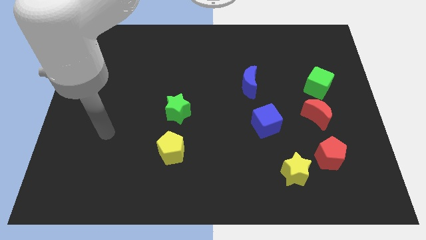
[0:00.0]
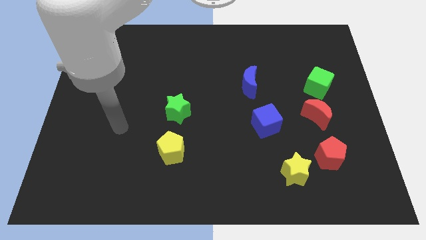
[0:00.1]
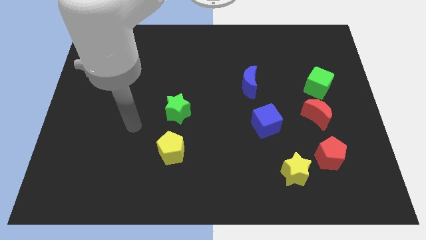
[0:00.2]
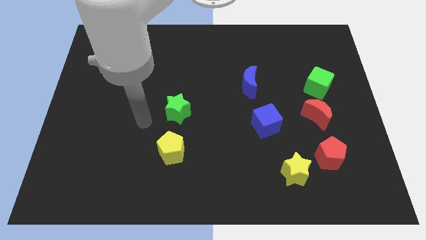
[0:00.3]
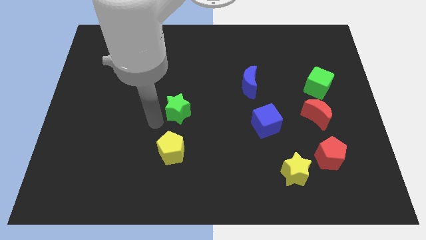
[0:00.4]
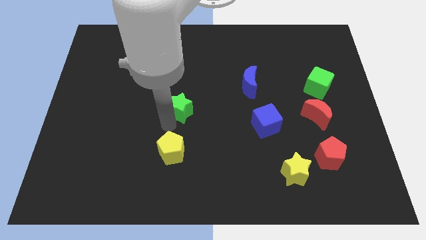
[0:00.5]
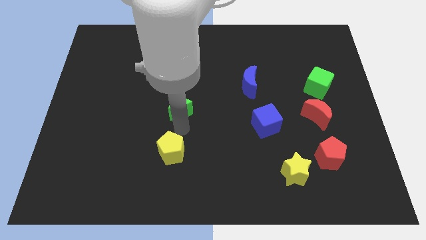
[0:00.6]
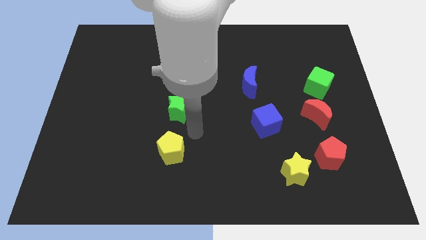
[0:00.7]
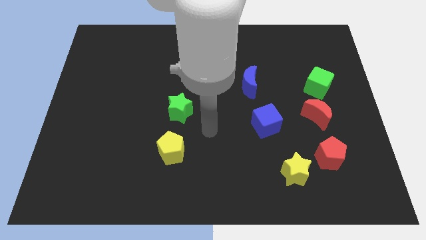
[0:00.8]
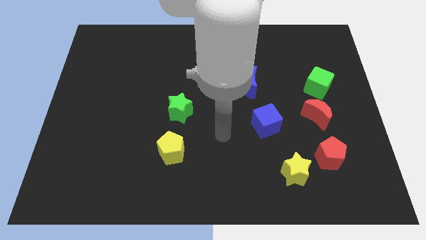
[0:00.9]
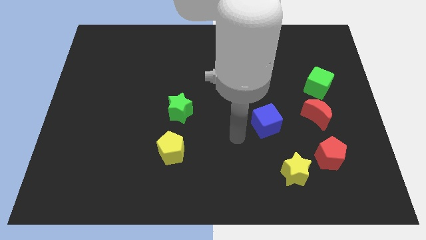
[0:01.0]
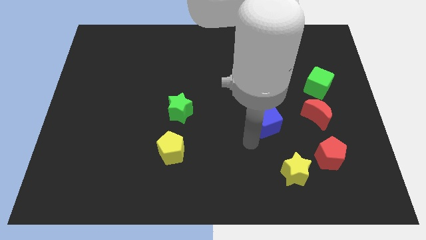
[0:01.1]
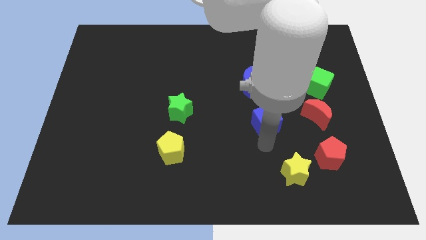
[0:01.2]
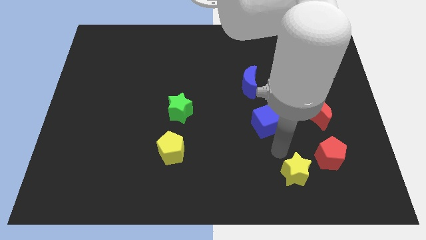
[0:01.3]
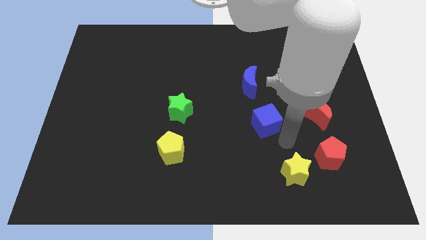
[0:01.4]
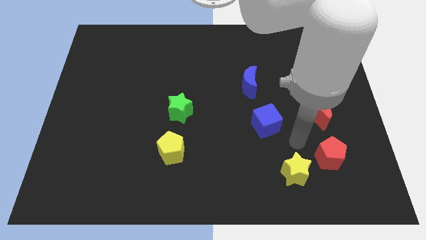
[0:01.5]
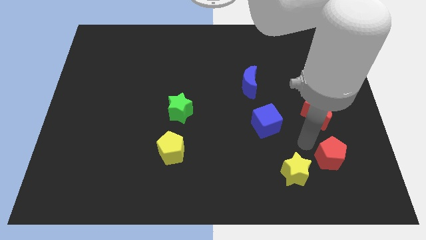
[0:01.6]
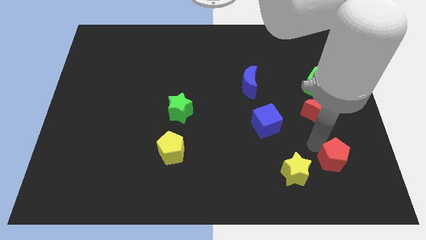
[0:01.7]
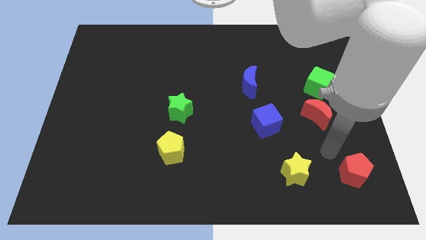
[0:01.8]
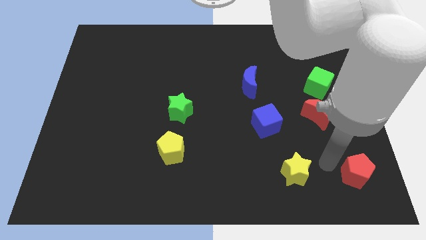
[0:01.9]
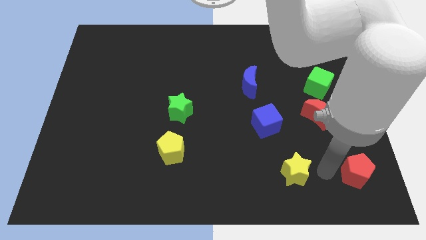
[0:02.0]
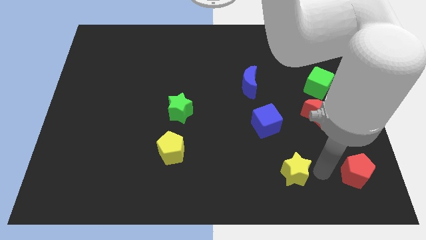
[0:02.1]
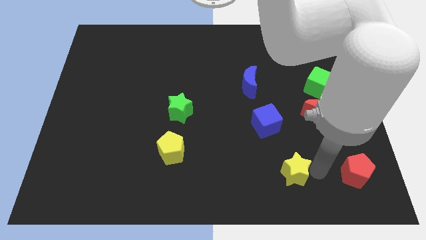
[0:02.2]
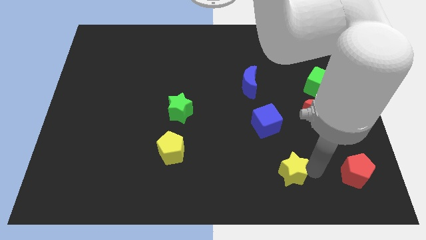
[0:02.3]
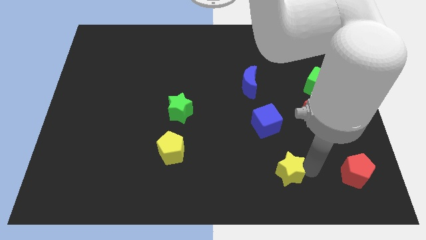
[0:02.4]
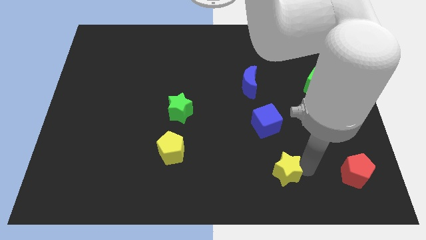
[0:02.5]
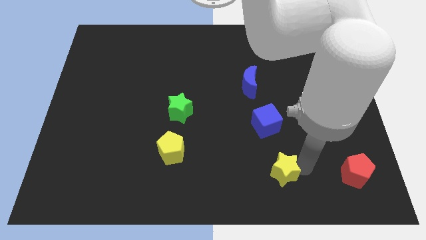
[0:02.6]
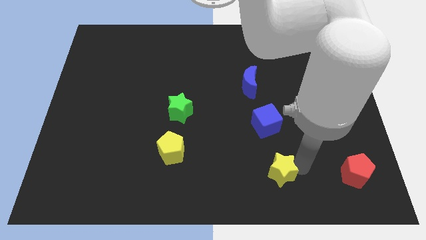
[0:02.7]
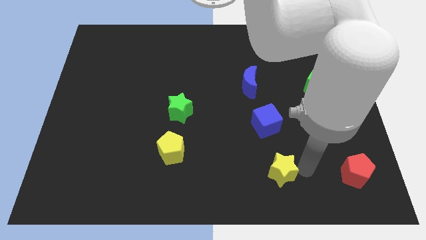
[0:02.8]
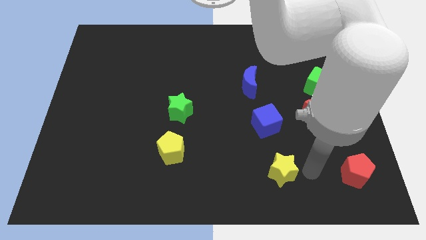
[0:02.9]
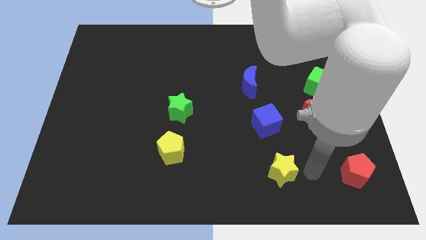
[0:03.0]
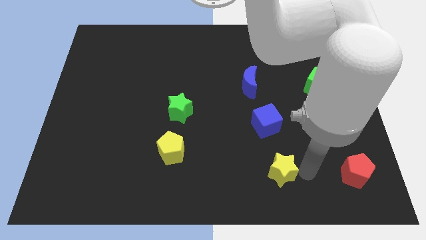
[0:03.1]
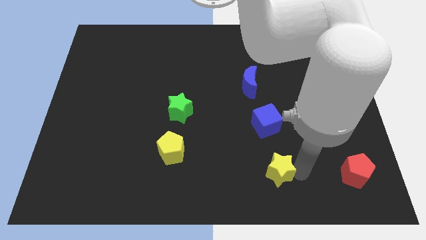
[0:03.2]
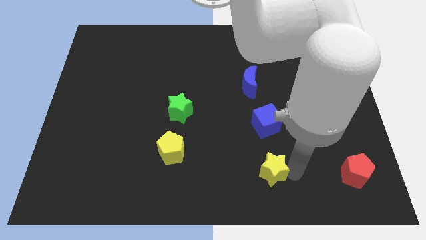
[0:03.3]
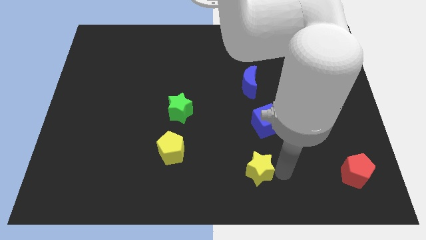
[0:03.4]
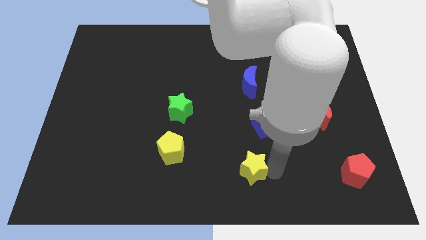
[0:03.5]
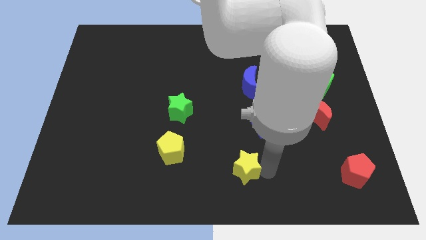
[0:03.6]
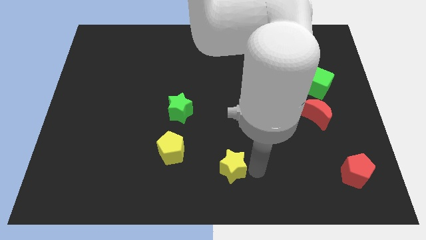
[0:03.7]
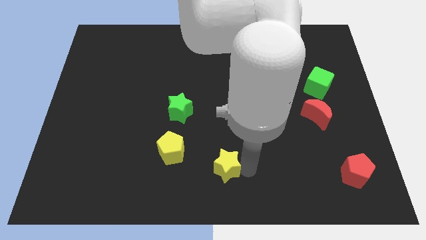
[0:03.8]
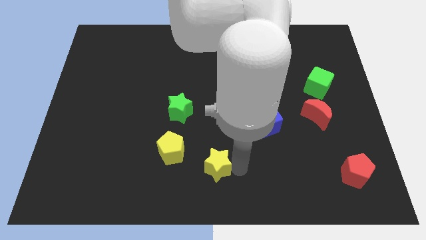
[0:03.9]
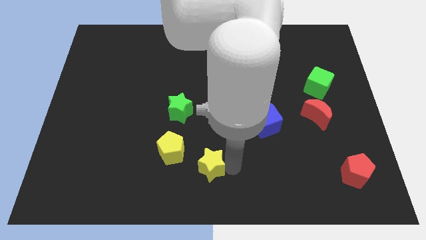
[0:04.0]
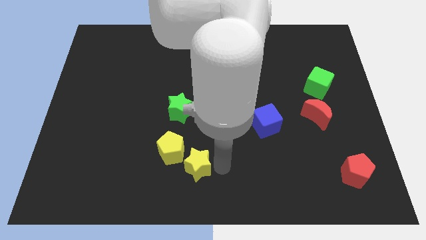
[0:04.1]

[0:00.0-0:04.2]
slide the yellow star to the left

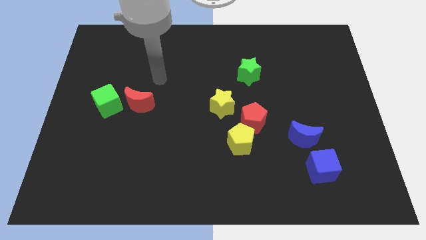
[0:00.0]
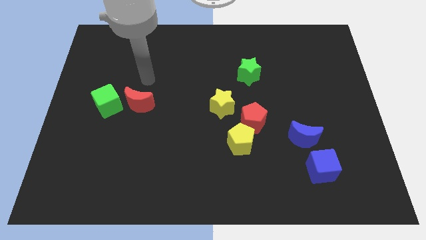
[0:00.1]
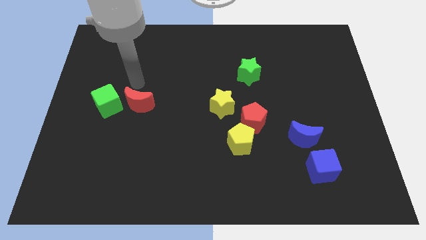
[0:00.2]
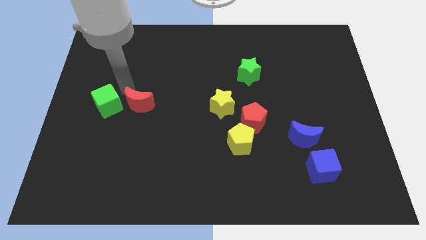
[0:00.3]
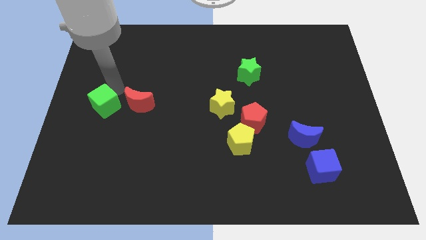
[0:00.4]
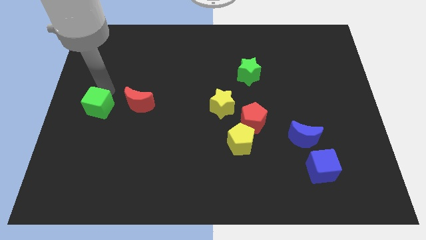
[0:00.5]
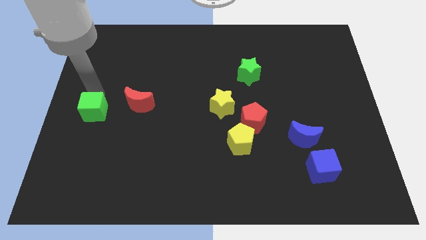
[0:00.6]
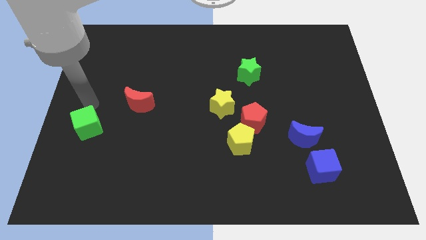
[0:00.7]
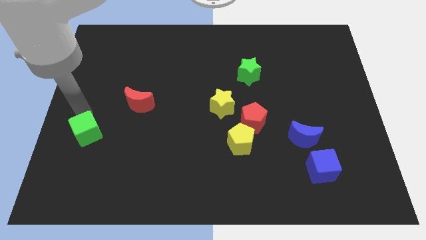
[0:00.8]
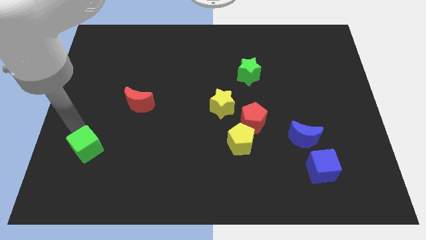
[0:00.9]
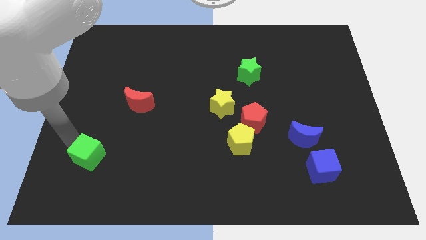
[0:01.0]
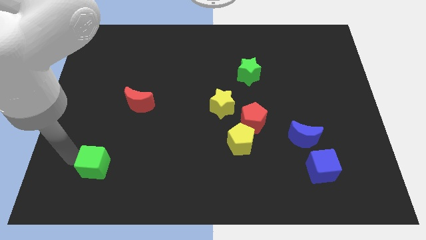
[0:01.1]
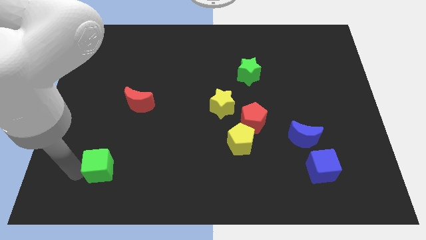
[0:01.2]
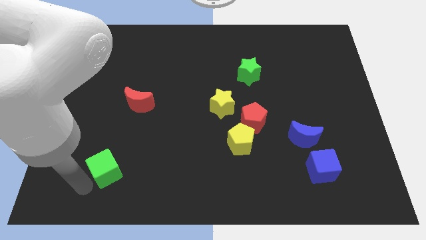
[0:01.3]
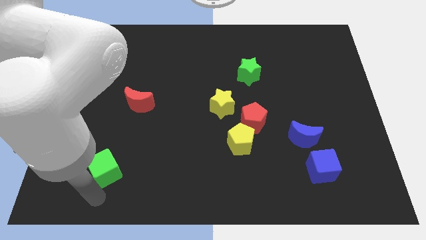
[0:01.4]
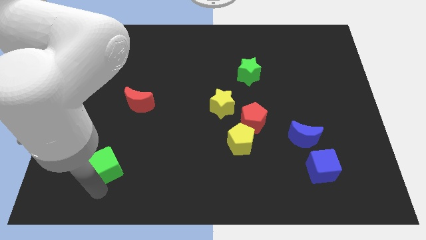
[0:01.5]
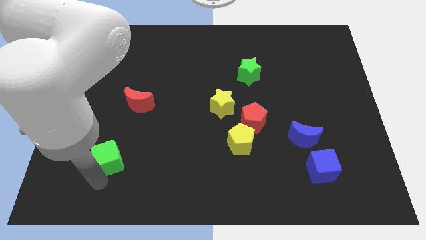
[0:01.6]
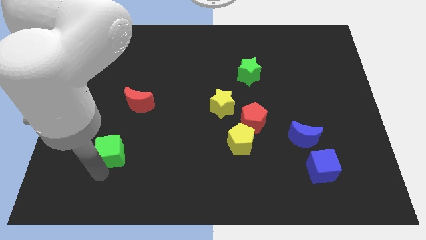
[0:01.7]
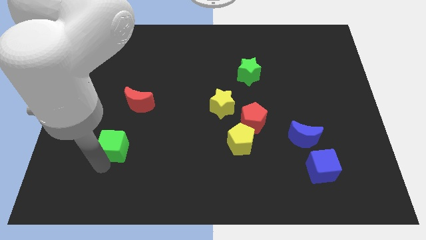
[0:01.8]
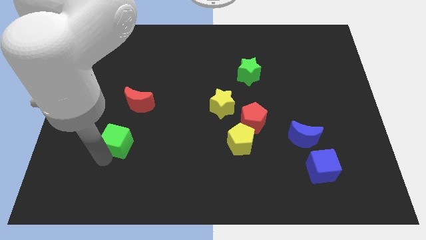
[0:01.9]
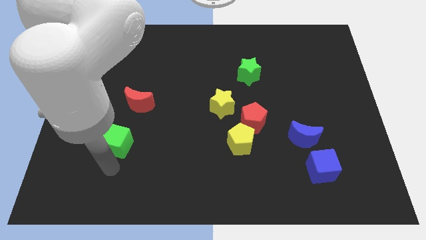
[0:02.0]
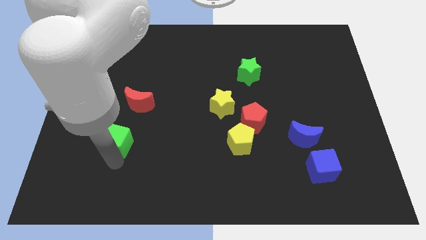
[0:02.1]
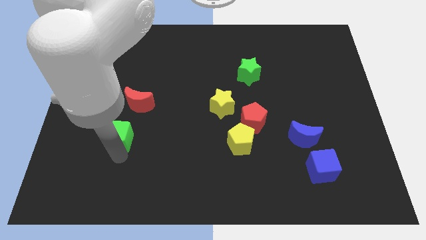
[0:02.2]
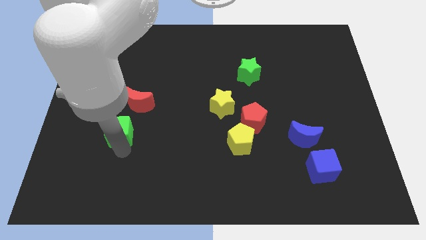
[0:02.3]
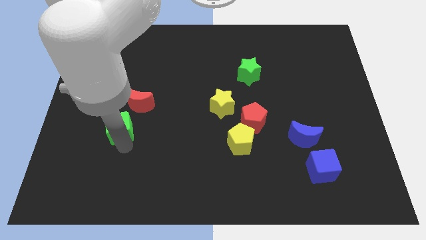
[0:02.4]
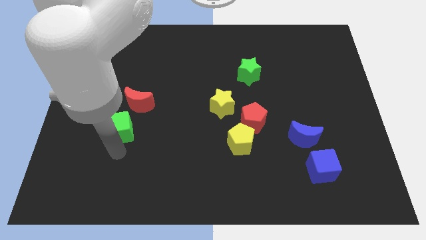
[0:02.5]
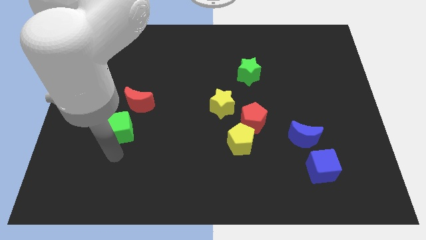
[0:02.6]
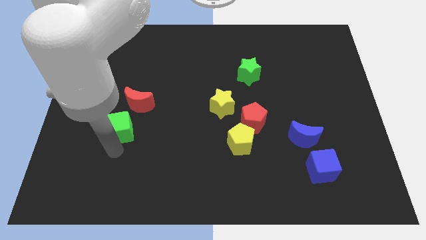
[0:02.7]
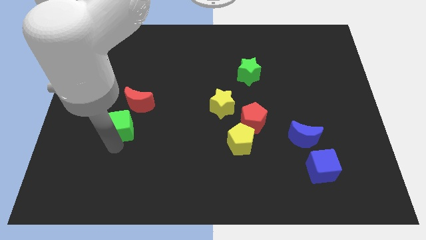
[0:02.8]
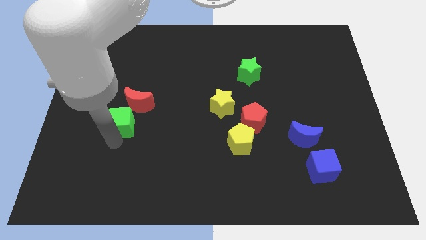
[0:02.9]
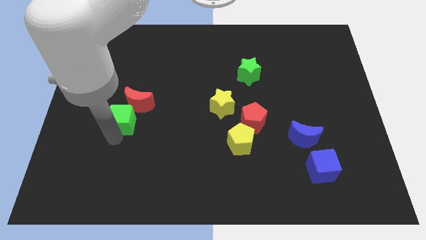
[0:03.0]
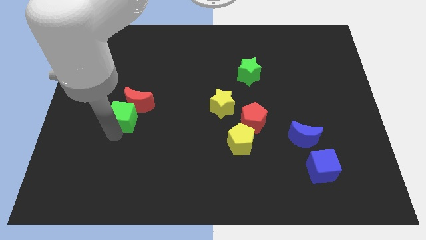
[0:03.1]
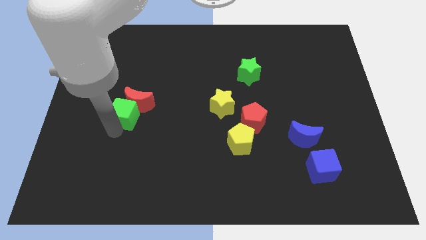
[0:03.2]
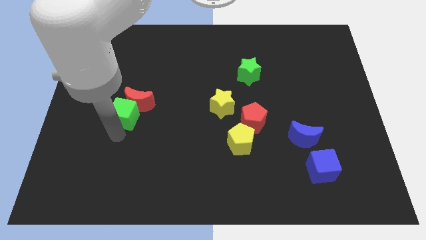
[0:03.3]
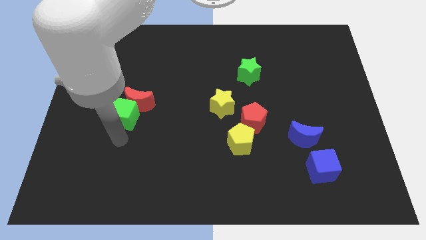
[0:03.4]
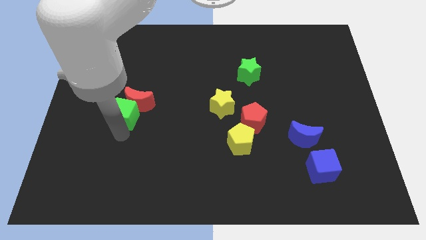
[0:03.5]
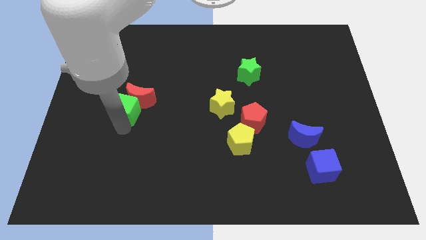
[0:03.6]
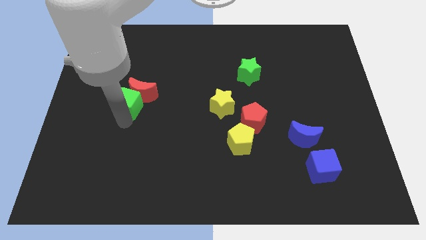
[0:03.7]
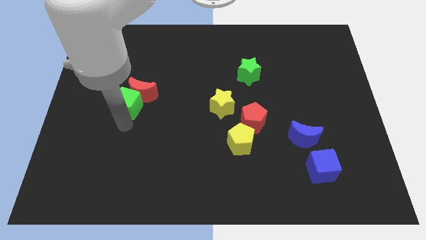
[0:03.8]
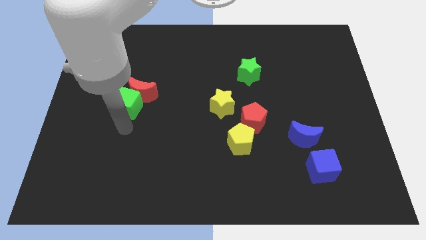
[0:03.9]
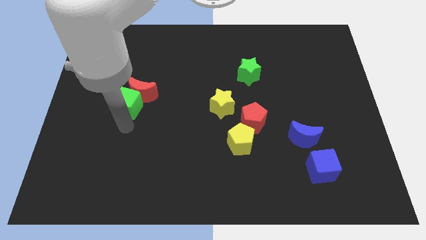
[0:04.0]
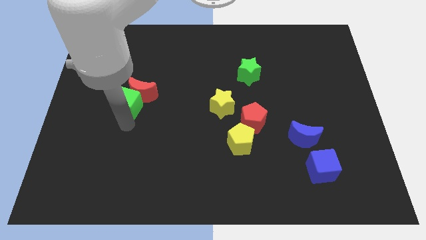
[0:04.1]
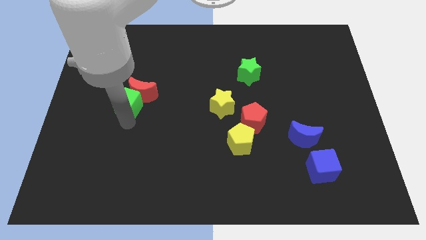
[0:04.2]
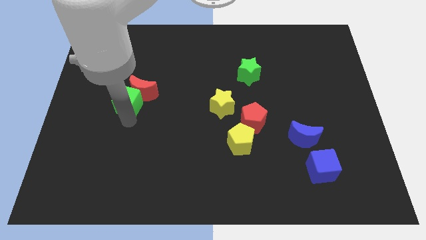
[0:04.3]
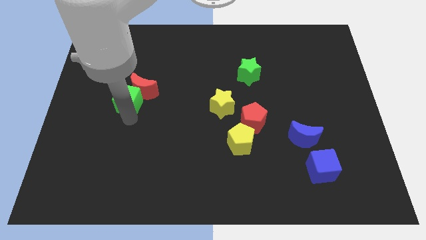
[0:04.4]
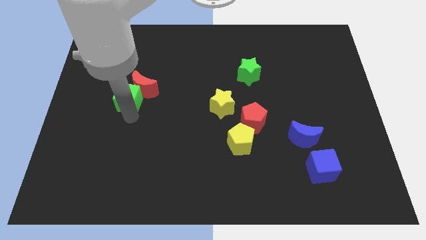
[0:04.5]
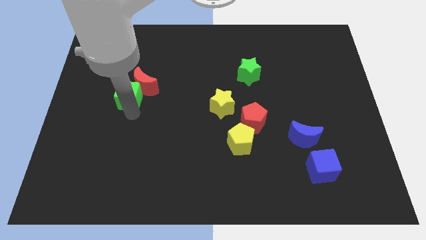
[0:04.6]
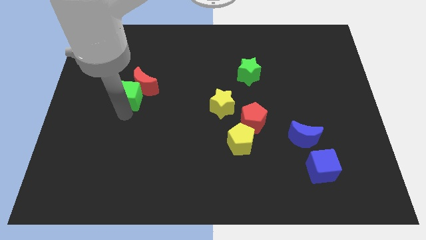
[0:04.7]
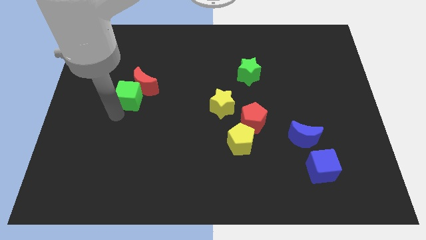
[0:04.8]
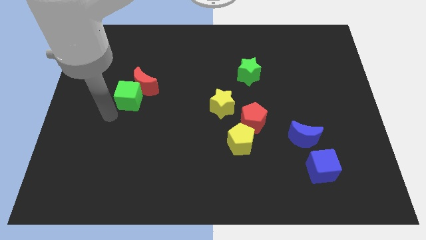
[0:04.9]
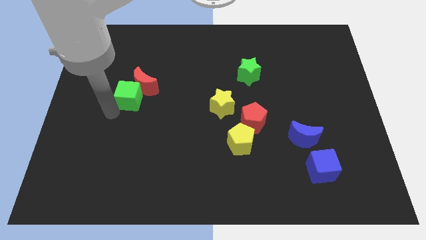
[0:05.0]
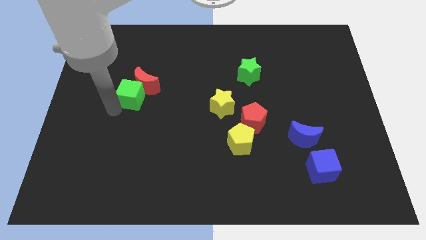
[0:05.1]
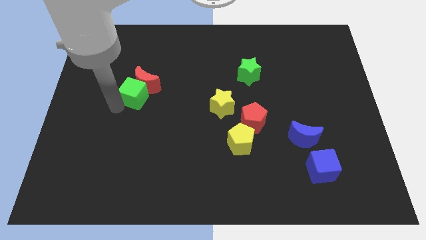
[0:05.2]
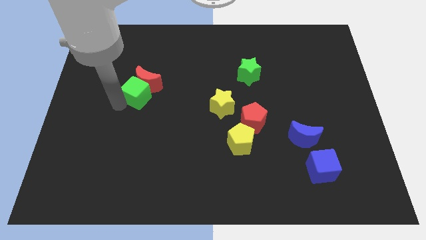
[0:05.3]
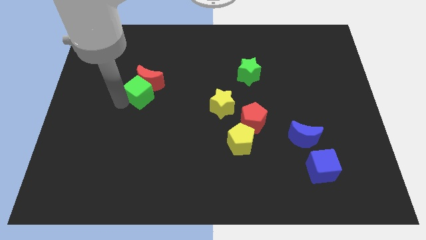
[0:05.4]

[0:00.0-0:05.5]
slightly slide the green cube diagonally upwards and right
